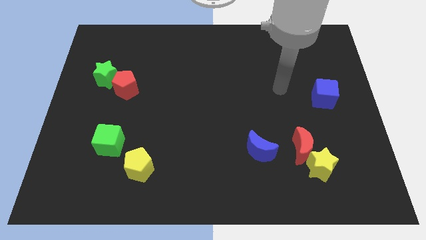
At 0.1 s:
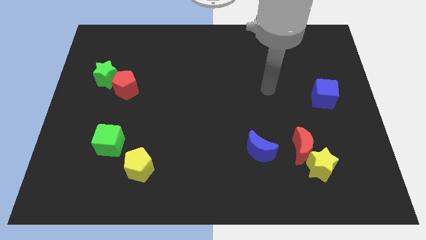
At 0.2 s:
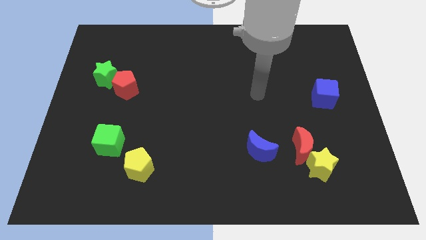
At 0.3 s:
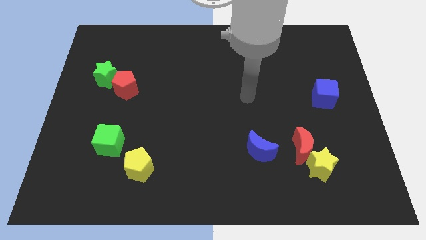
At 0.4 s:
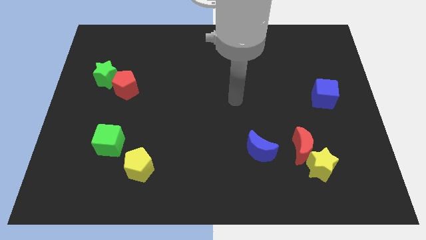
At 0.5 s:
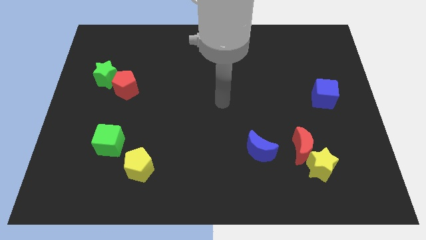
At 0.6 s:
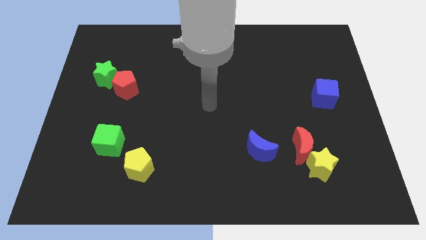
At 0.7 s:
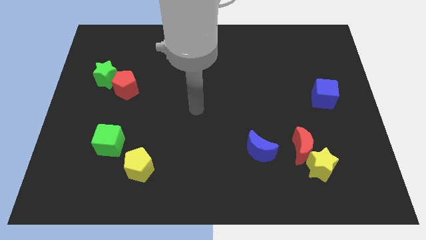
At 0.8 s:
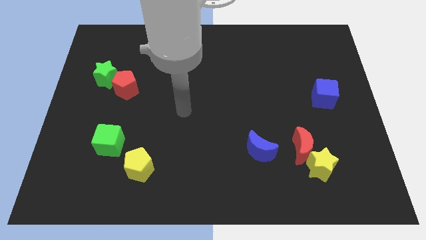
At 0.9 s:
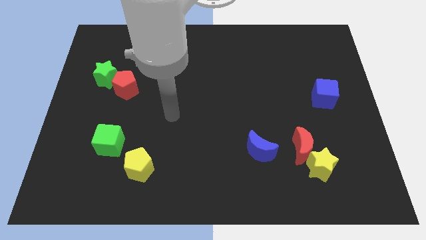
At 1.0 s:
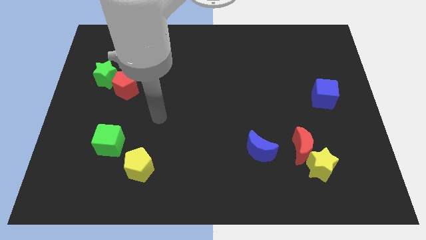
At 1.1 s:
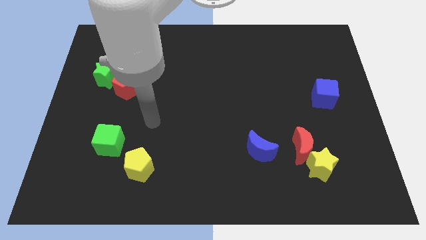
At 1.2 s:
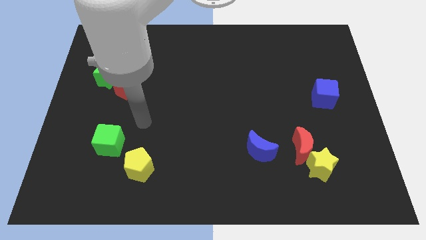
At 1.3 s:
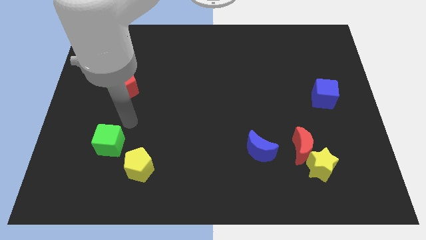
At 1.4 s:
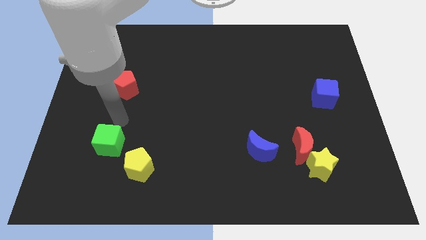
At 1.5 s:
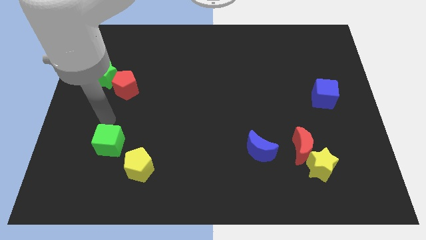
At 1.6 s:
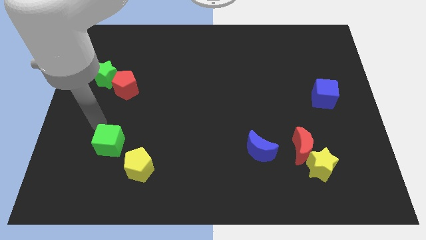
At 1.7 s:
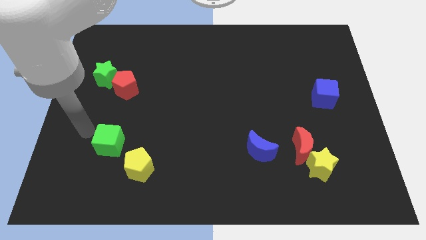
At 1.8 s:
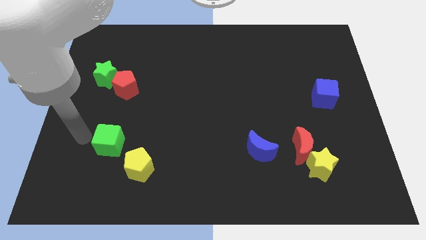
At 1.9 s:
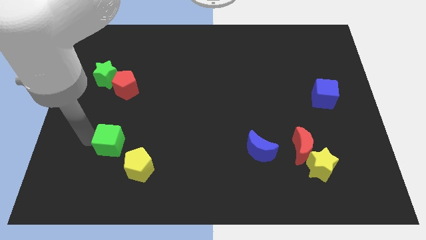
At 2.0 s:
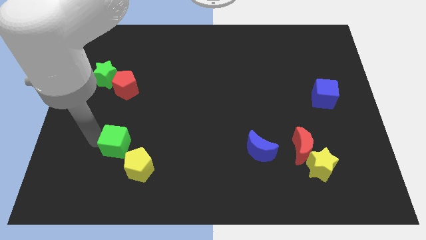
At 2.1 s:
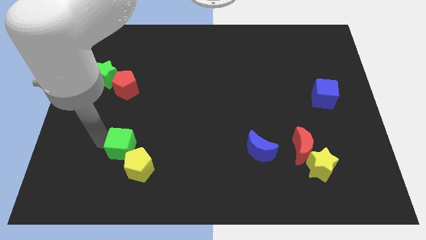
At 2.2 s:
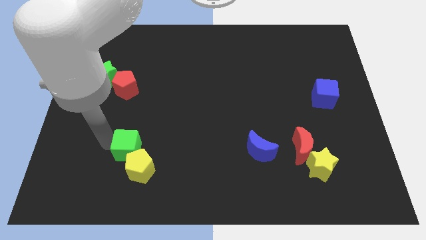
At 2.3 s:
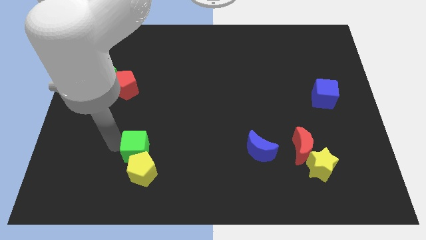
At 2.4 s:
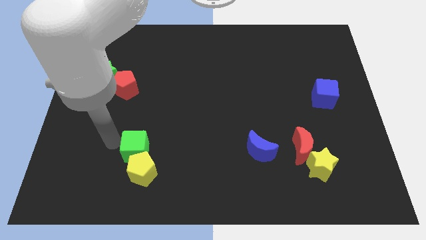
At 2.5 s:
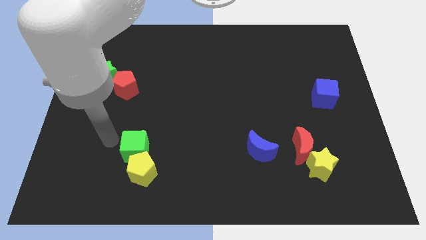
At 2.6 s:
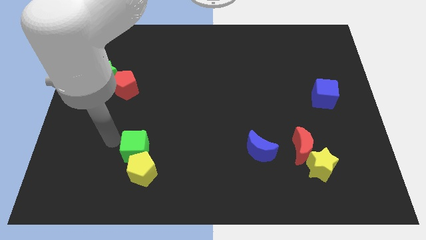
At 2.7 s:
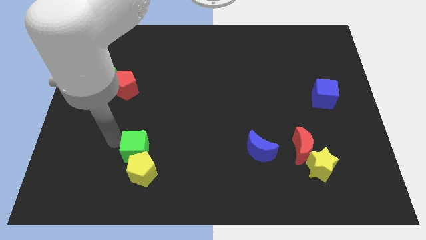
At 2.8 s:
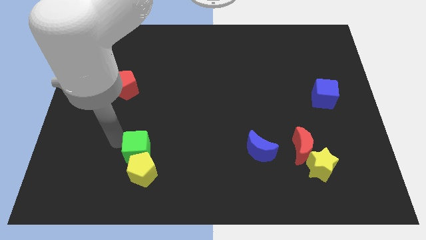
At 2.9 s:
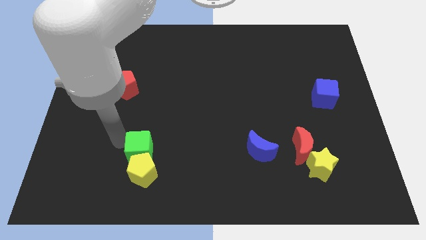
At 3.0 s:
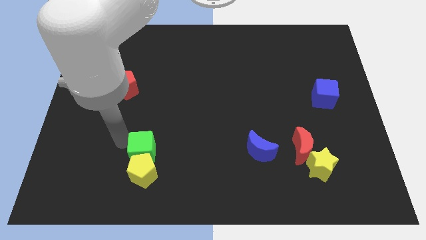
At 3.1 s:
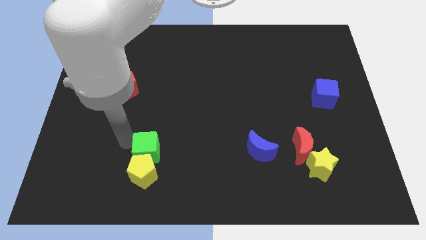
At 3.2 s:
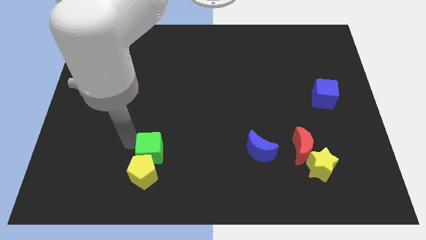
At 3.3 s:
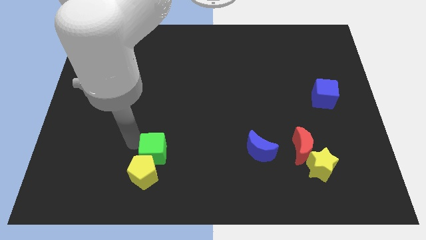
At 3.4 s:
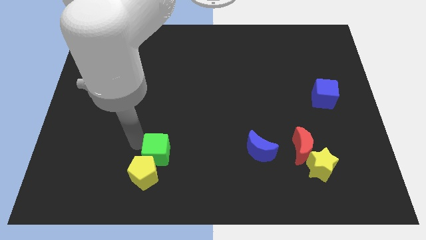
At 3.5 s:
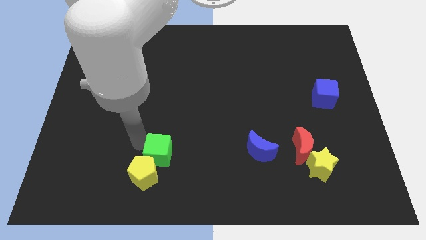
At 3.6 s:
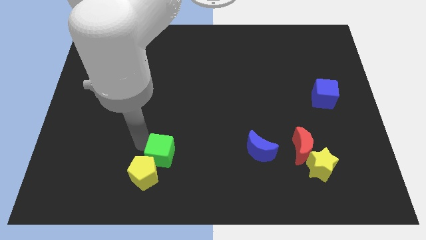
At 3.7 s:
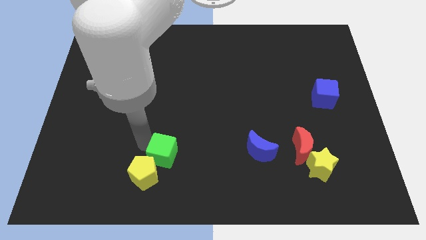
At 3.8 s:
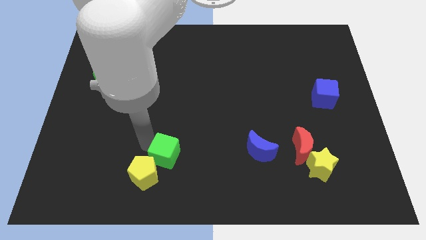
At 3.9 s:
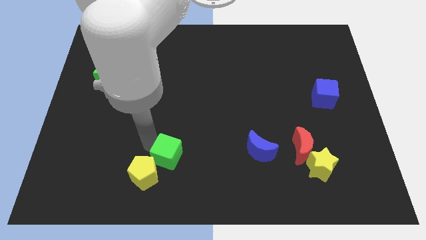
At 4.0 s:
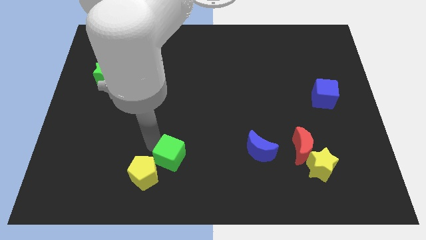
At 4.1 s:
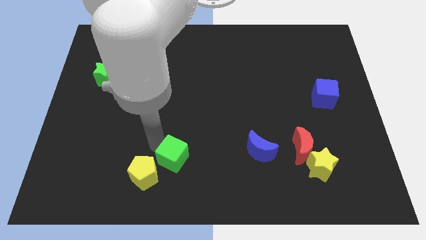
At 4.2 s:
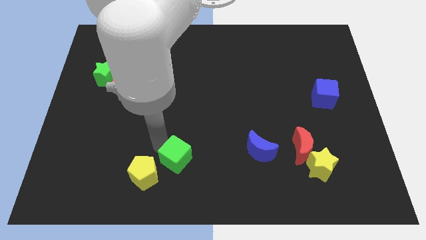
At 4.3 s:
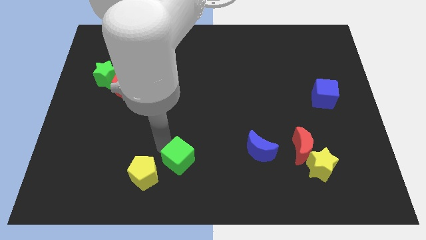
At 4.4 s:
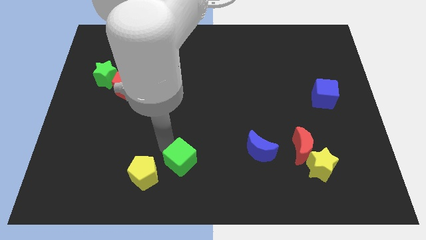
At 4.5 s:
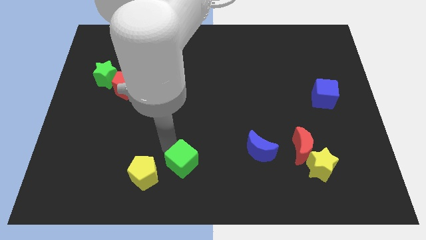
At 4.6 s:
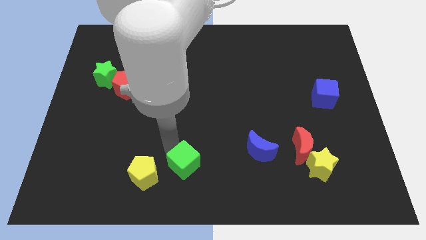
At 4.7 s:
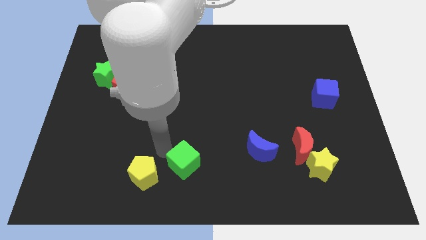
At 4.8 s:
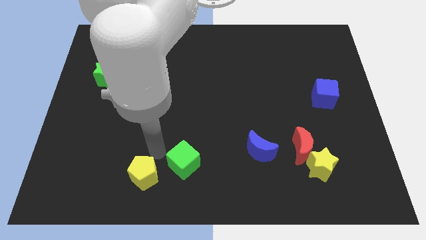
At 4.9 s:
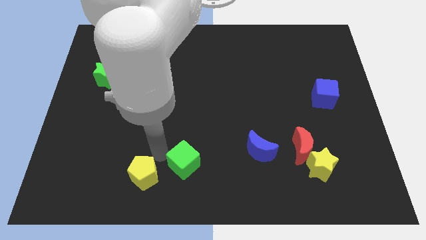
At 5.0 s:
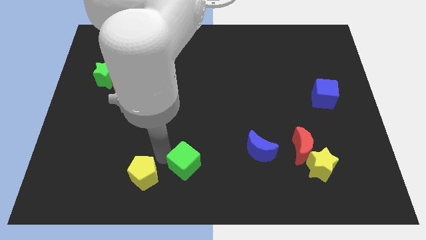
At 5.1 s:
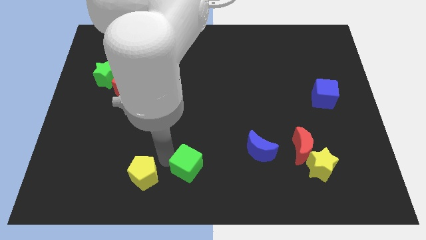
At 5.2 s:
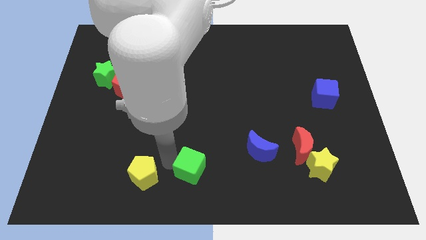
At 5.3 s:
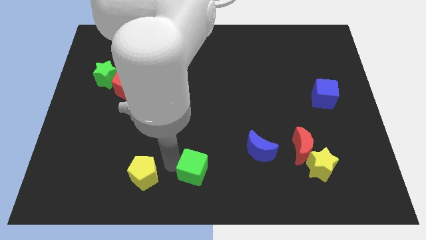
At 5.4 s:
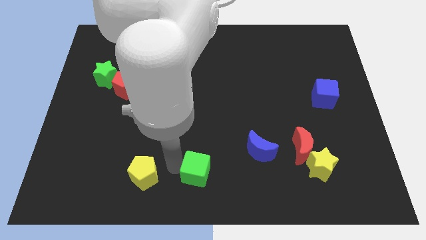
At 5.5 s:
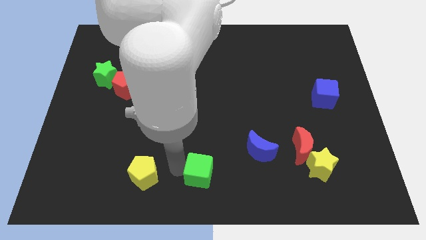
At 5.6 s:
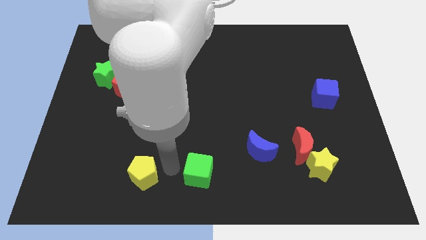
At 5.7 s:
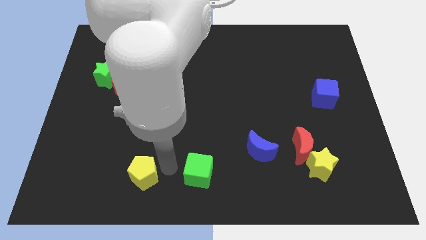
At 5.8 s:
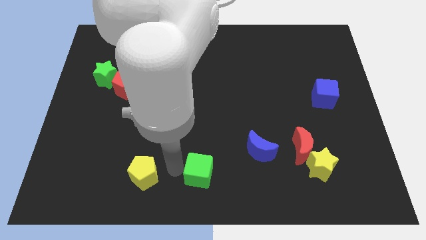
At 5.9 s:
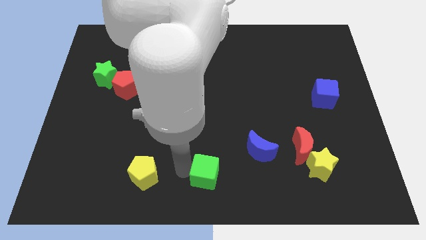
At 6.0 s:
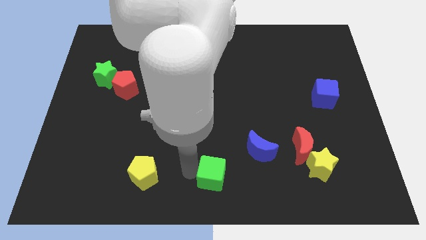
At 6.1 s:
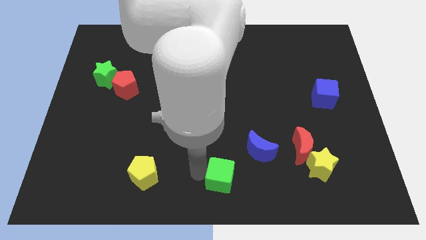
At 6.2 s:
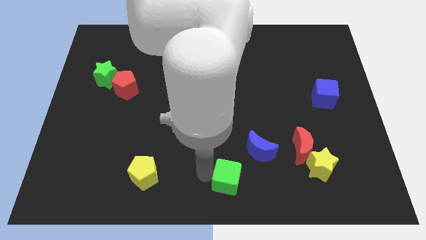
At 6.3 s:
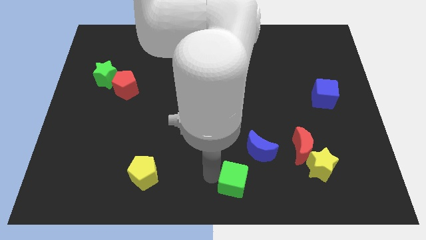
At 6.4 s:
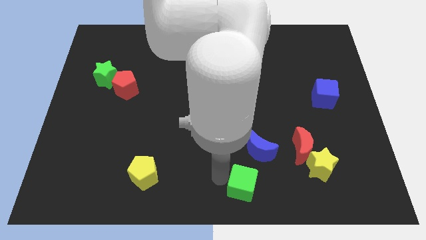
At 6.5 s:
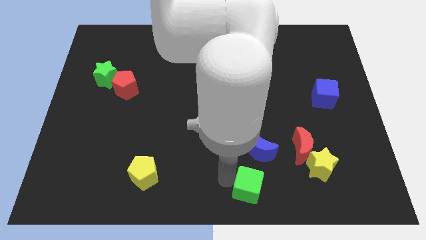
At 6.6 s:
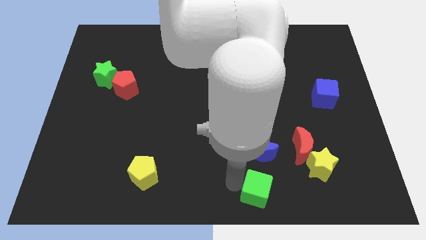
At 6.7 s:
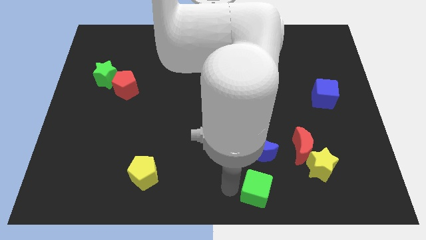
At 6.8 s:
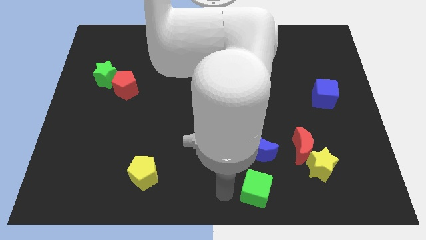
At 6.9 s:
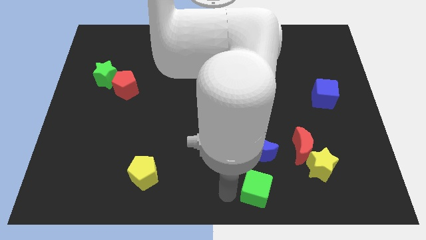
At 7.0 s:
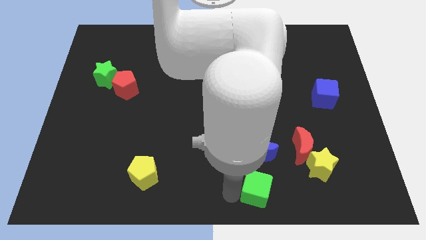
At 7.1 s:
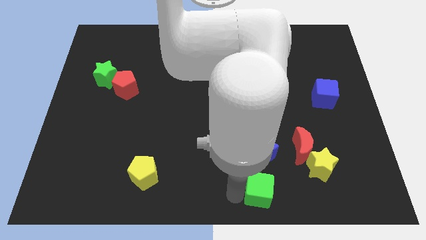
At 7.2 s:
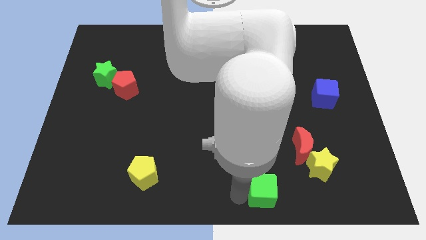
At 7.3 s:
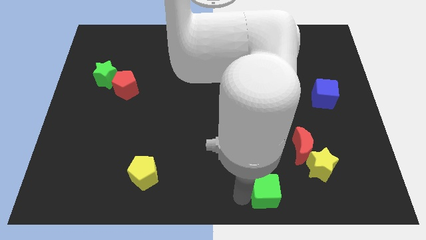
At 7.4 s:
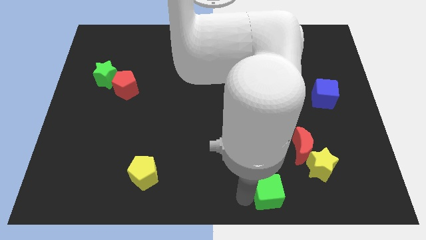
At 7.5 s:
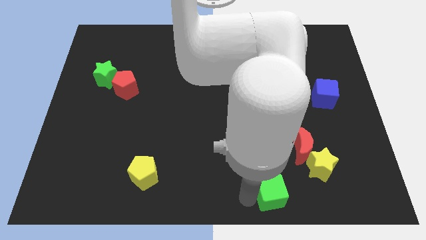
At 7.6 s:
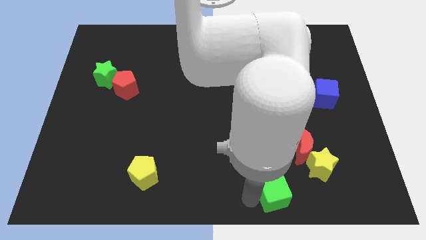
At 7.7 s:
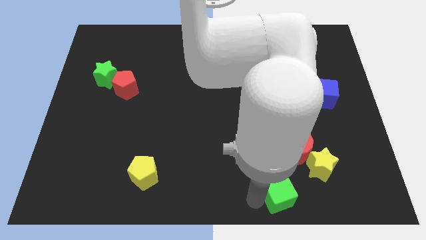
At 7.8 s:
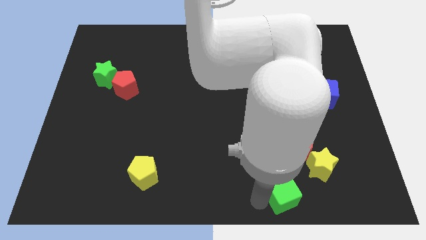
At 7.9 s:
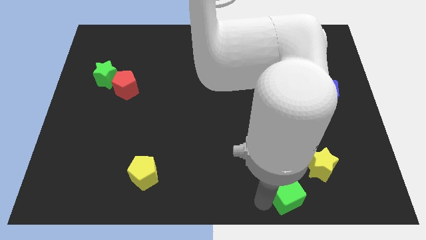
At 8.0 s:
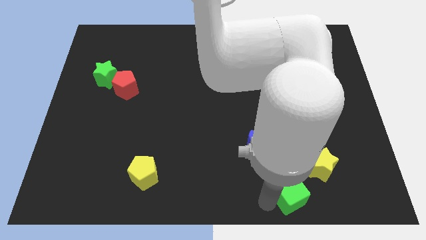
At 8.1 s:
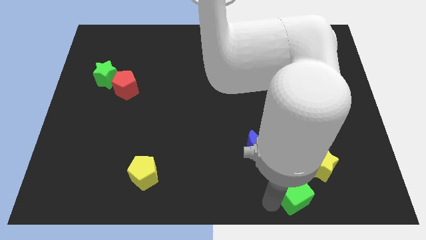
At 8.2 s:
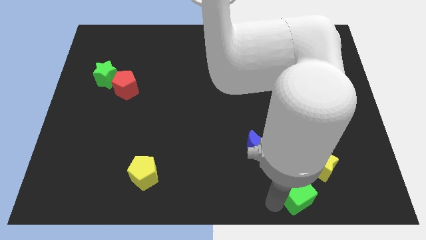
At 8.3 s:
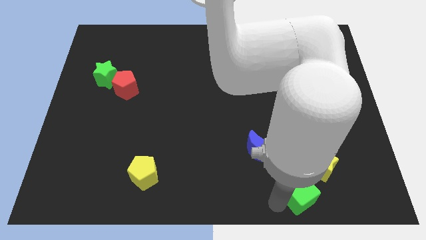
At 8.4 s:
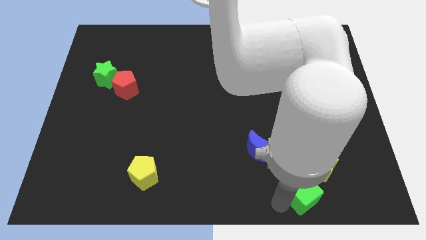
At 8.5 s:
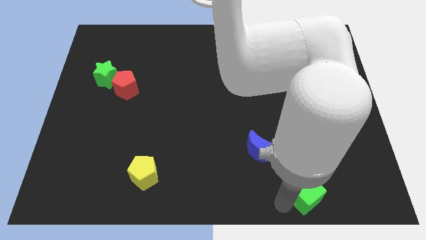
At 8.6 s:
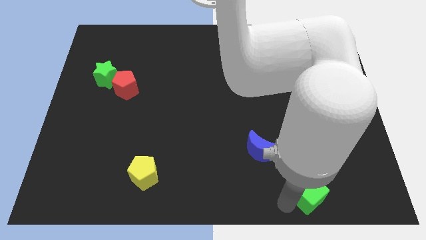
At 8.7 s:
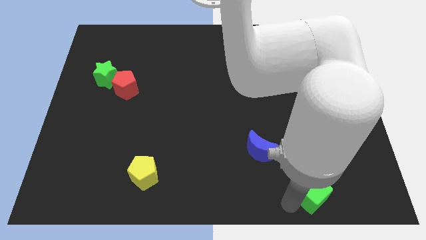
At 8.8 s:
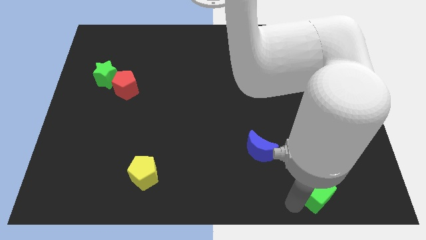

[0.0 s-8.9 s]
slide the green cube towards the yellow star
